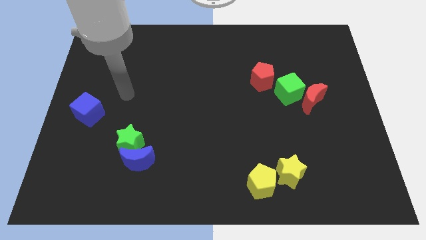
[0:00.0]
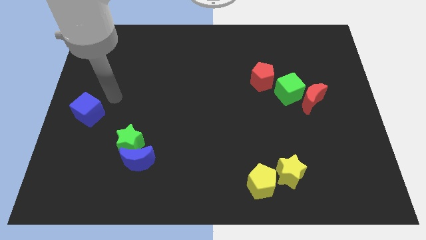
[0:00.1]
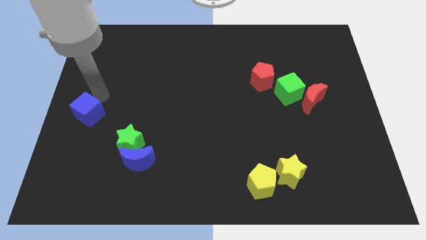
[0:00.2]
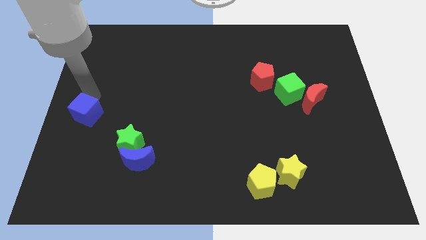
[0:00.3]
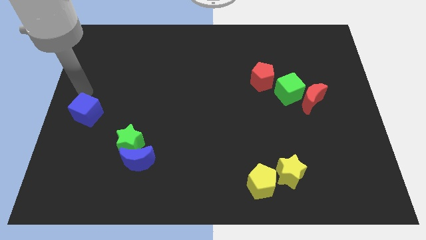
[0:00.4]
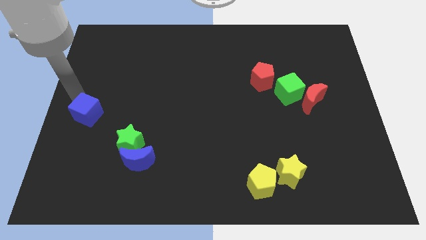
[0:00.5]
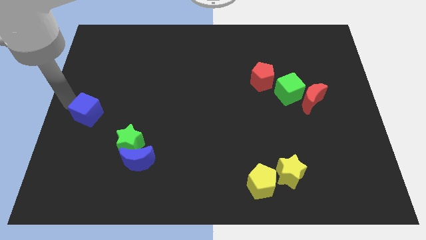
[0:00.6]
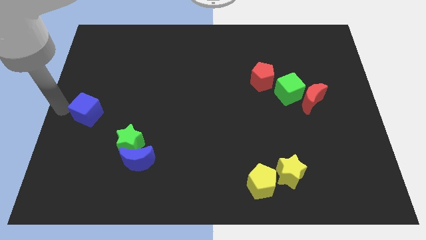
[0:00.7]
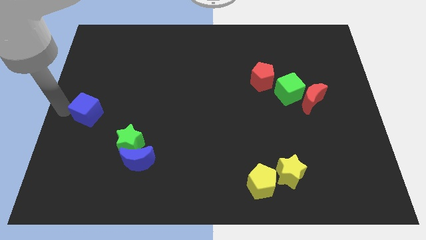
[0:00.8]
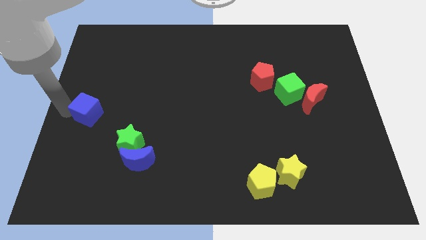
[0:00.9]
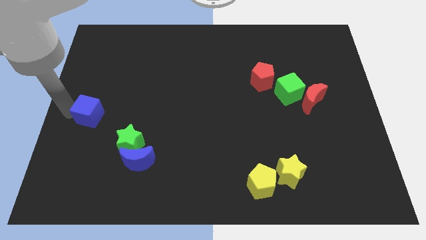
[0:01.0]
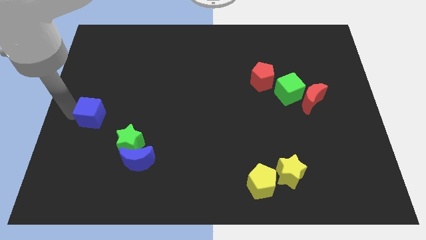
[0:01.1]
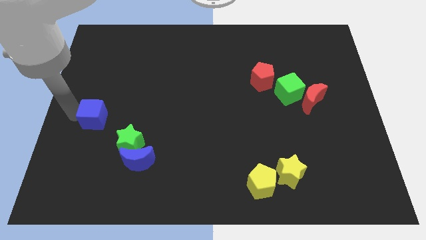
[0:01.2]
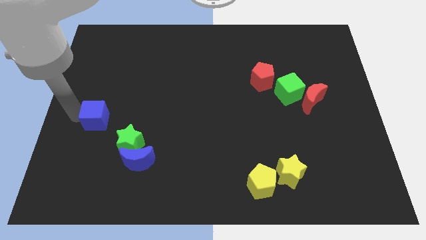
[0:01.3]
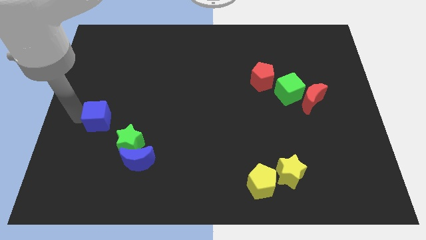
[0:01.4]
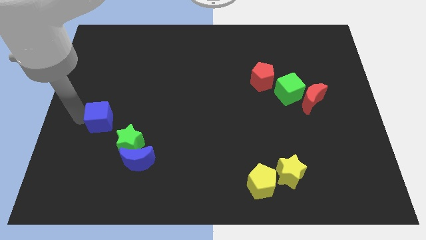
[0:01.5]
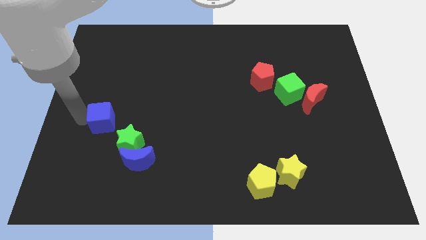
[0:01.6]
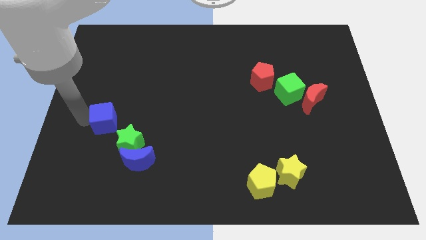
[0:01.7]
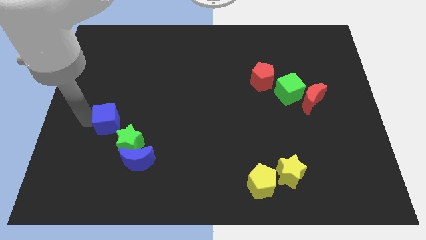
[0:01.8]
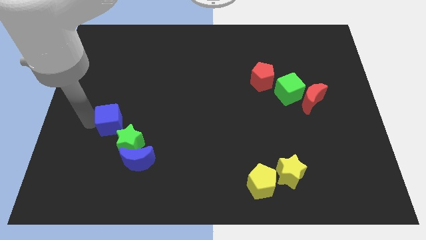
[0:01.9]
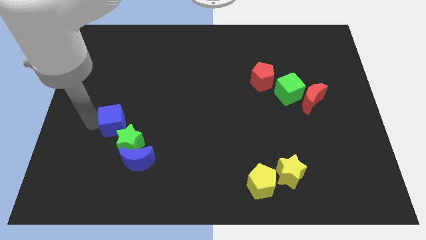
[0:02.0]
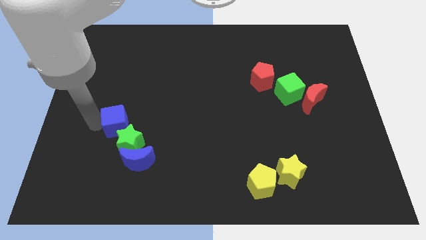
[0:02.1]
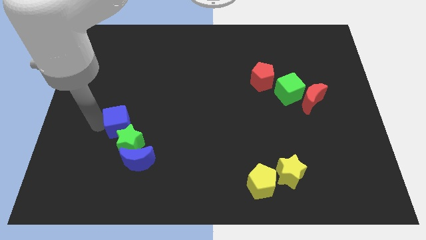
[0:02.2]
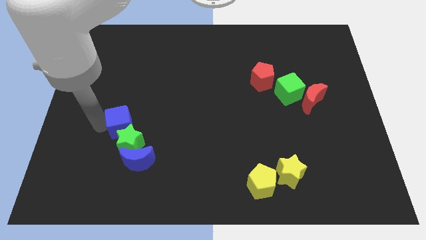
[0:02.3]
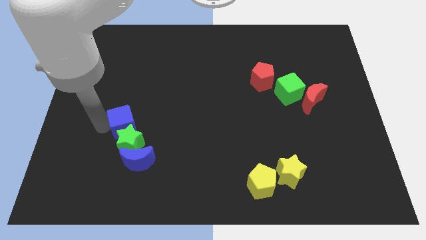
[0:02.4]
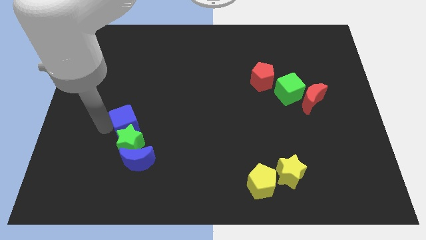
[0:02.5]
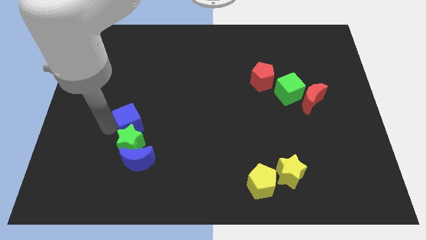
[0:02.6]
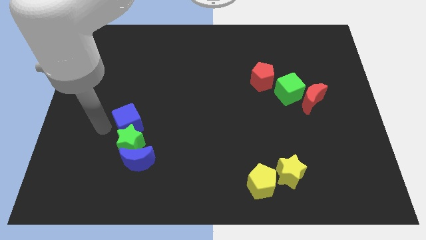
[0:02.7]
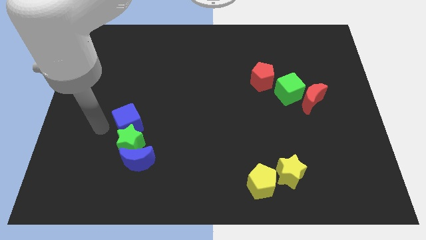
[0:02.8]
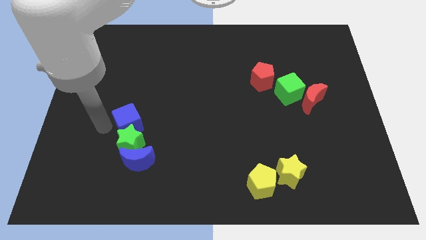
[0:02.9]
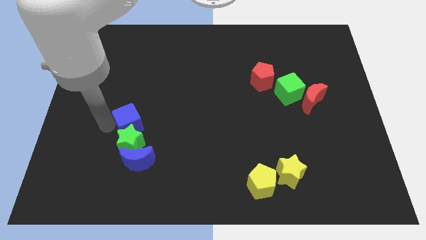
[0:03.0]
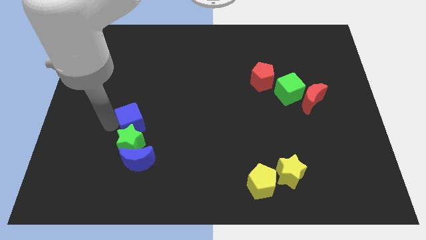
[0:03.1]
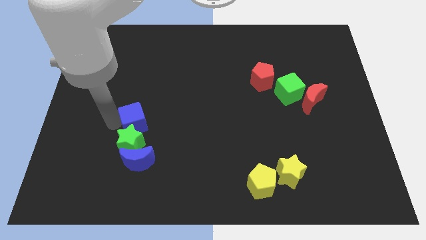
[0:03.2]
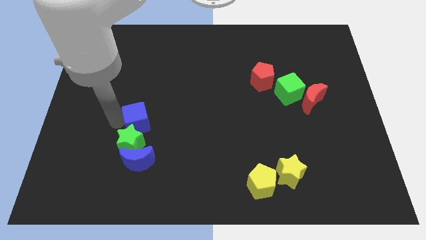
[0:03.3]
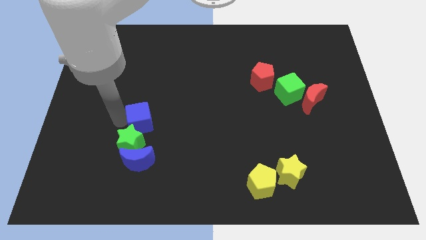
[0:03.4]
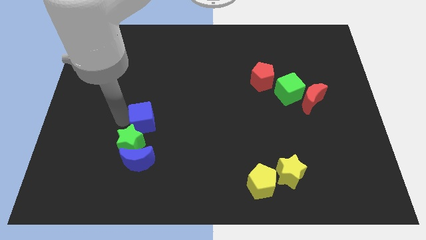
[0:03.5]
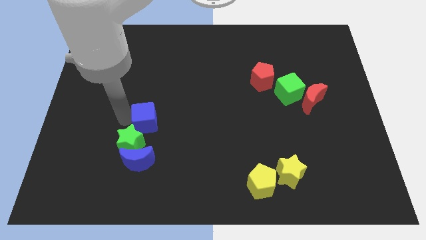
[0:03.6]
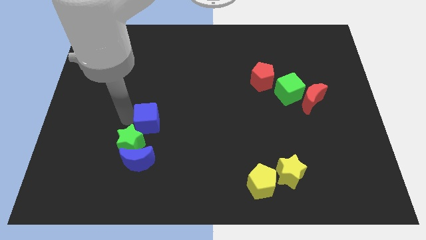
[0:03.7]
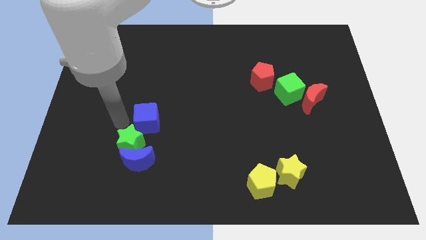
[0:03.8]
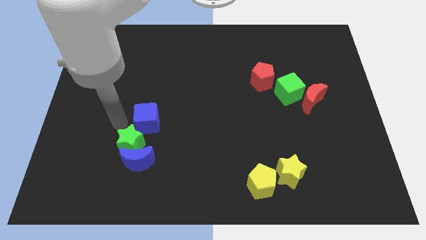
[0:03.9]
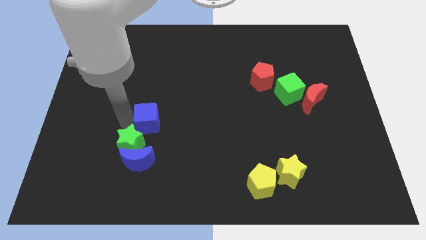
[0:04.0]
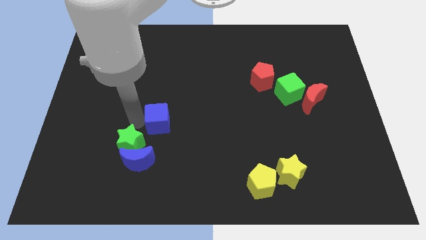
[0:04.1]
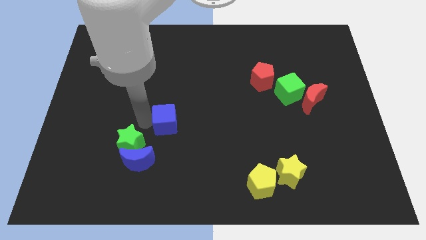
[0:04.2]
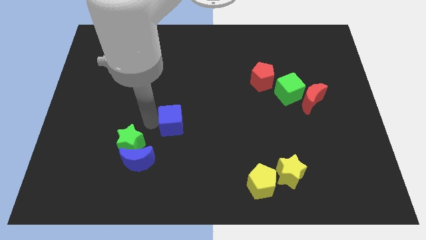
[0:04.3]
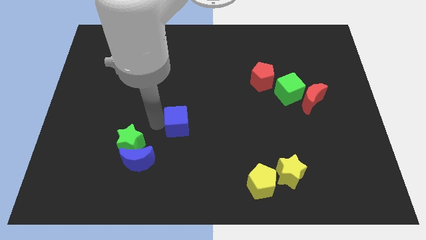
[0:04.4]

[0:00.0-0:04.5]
slide the blue cube to the right

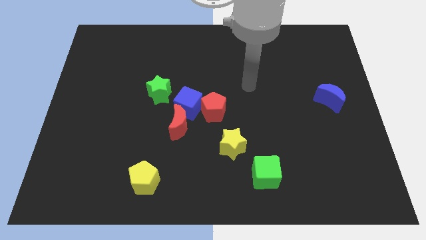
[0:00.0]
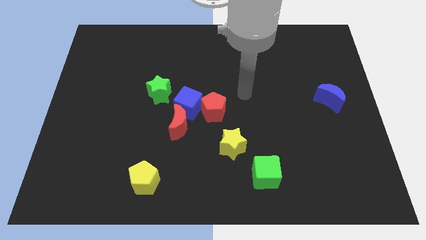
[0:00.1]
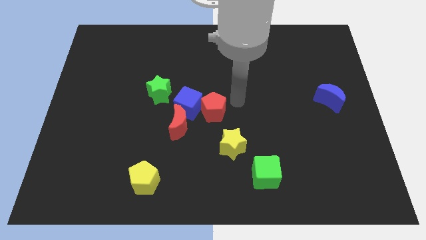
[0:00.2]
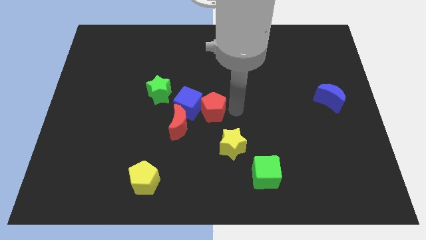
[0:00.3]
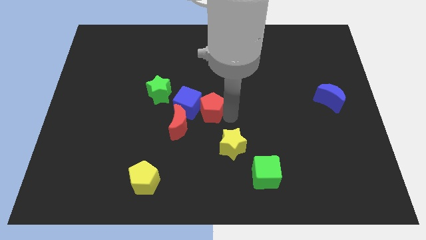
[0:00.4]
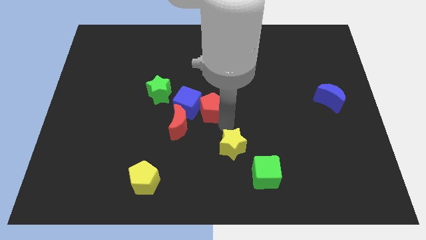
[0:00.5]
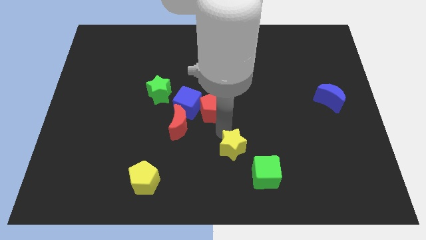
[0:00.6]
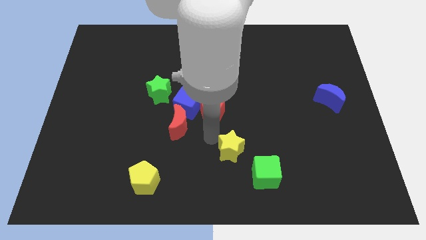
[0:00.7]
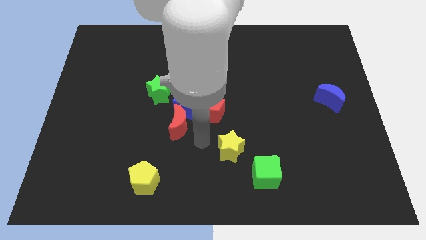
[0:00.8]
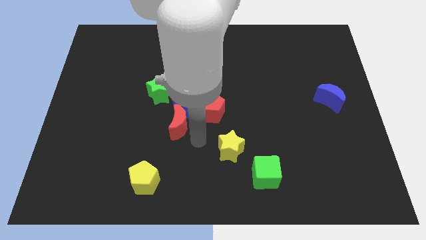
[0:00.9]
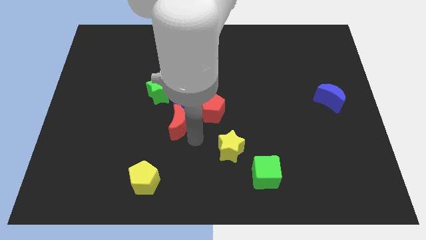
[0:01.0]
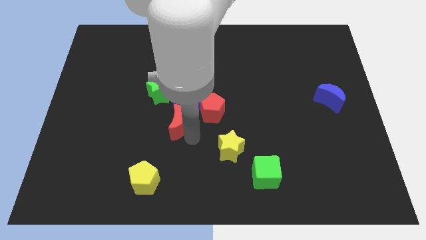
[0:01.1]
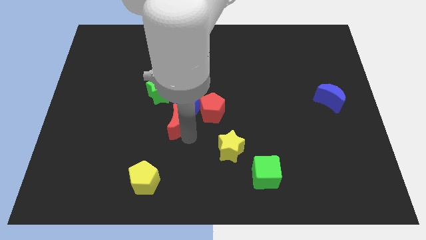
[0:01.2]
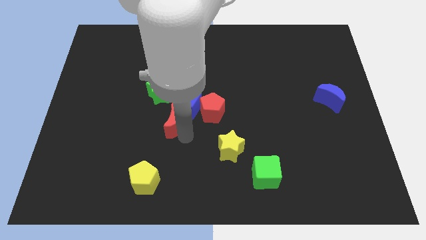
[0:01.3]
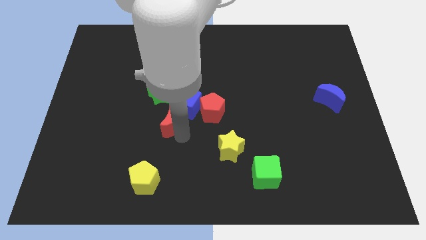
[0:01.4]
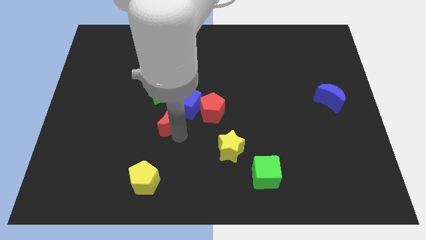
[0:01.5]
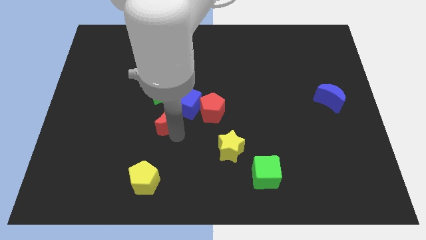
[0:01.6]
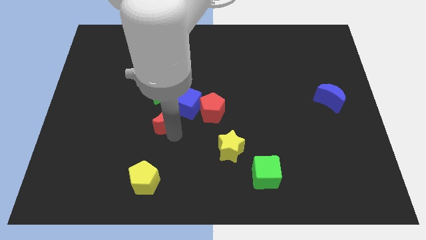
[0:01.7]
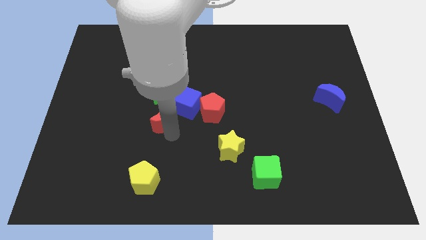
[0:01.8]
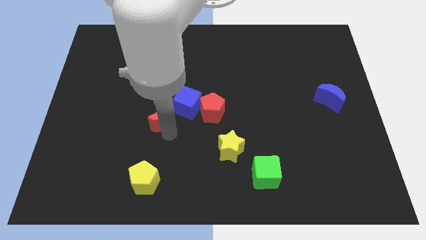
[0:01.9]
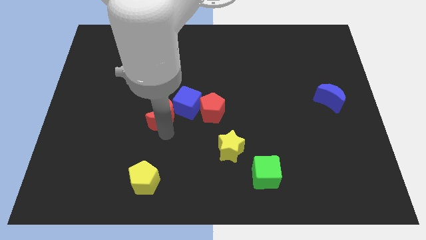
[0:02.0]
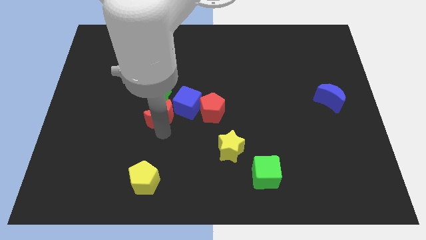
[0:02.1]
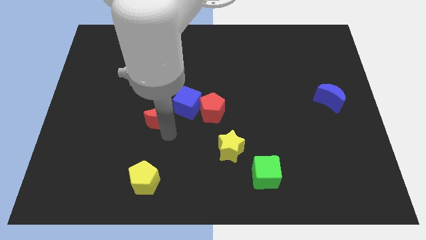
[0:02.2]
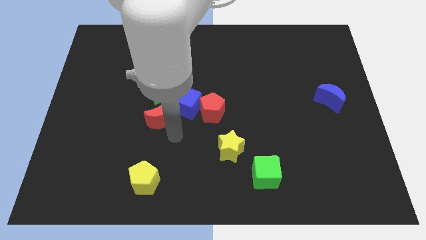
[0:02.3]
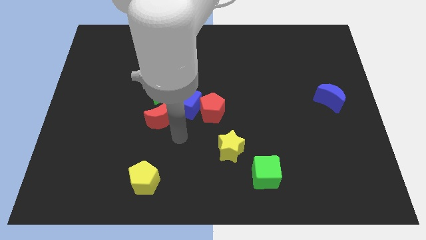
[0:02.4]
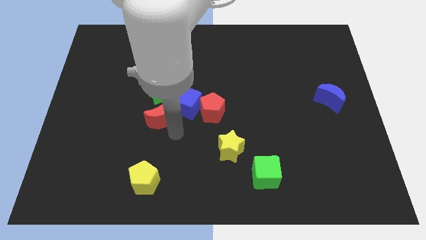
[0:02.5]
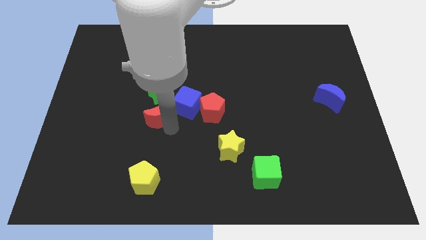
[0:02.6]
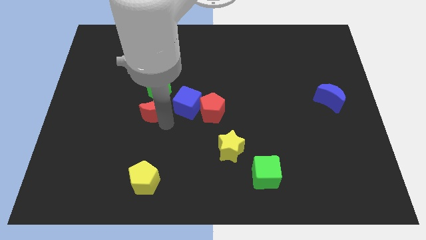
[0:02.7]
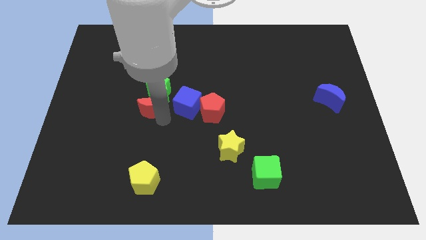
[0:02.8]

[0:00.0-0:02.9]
slightly move the red moon upwards and then to the left

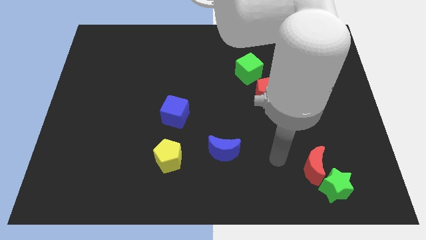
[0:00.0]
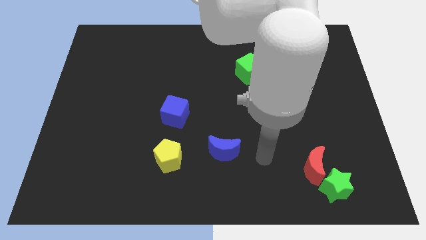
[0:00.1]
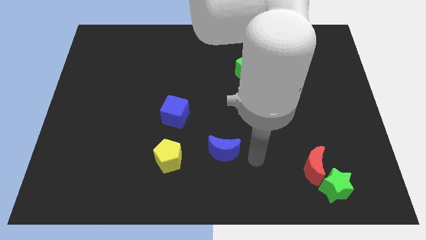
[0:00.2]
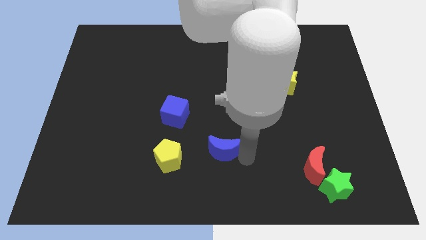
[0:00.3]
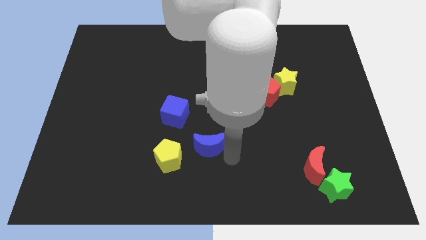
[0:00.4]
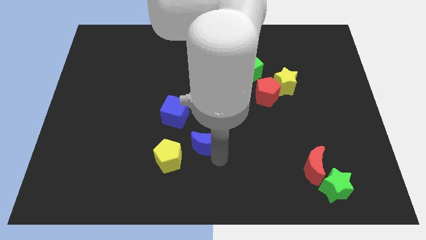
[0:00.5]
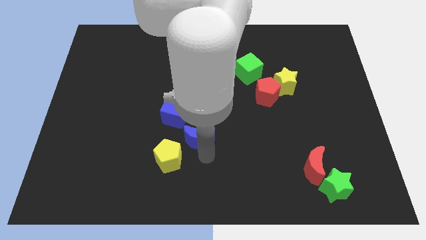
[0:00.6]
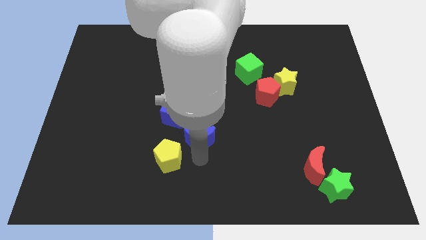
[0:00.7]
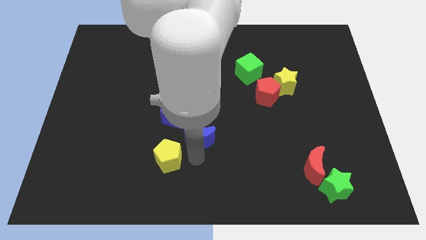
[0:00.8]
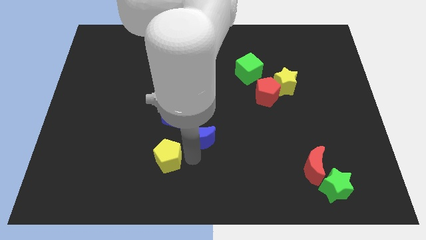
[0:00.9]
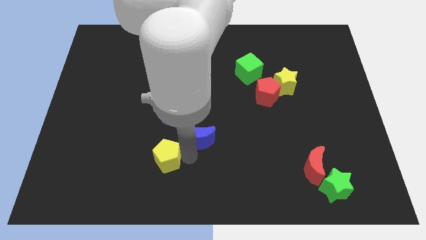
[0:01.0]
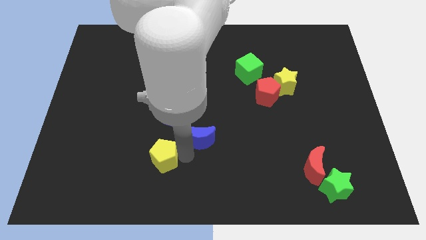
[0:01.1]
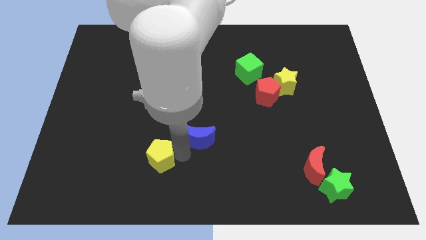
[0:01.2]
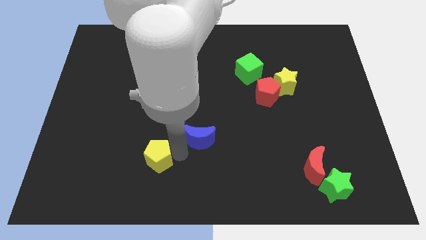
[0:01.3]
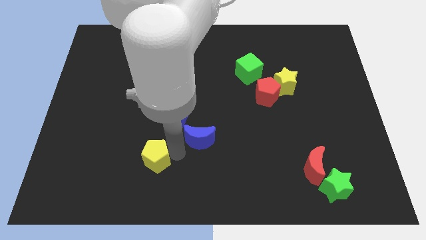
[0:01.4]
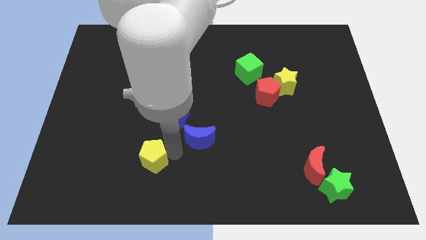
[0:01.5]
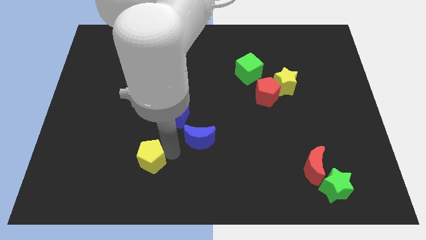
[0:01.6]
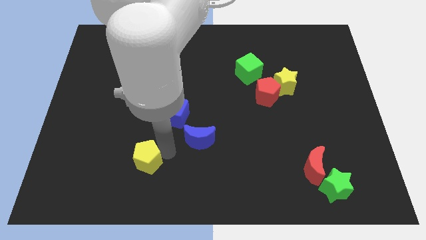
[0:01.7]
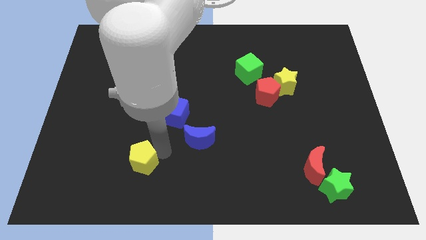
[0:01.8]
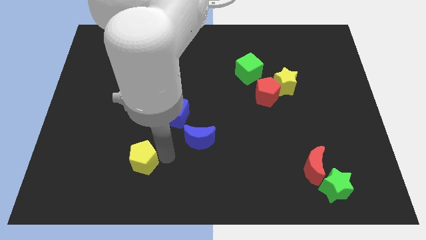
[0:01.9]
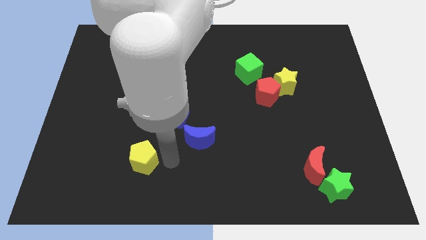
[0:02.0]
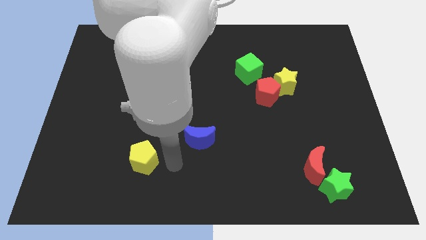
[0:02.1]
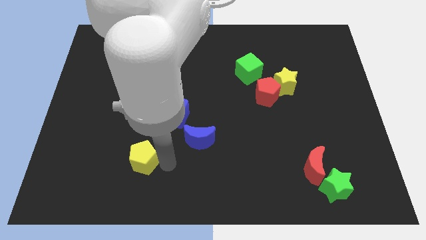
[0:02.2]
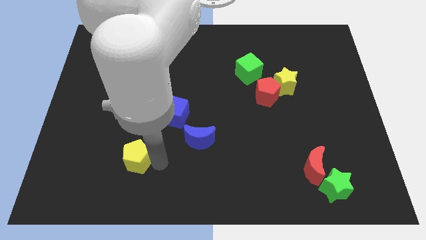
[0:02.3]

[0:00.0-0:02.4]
push the yellow pentagon left slightly
